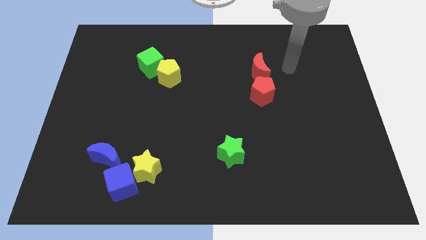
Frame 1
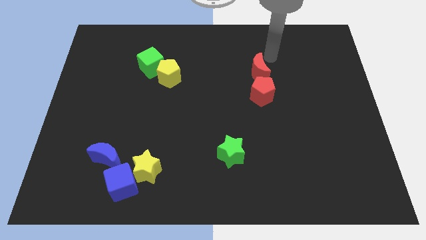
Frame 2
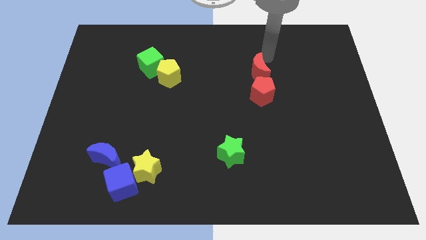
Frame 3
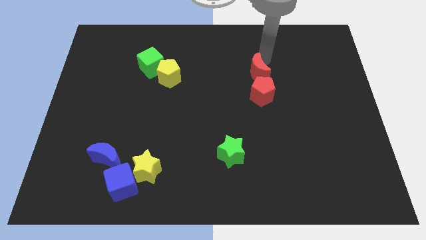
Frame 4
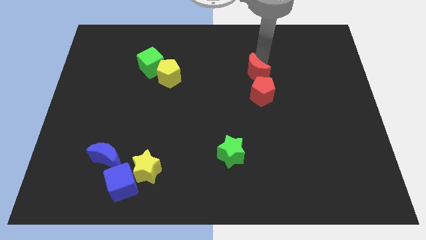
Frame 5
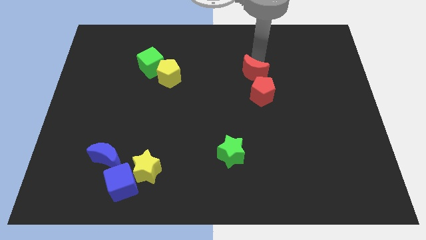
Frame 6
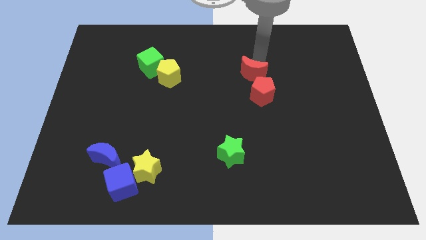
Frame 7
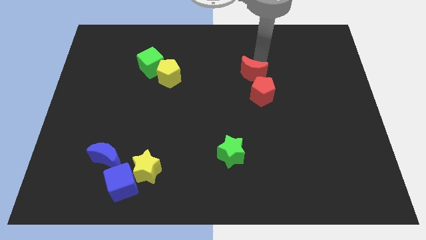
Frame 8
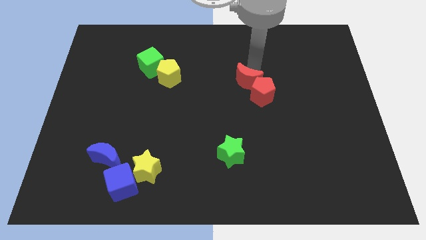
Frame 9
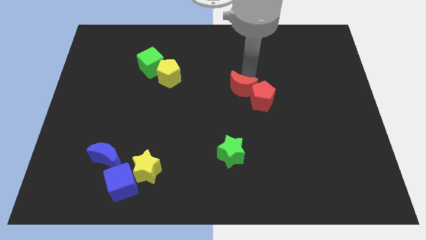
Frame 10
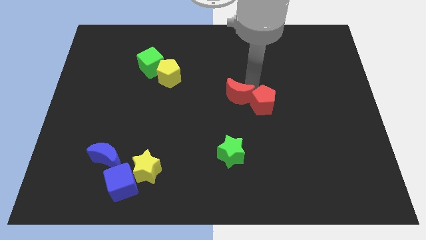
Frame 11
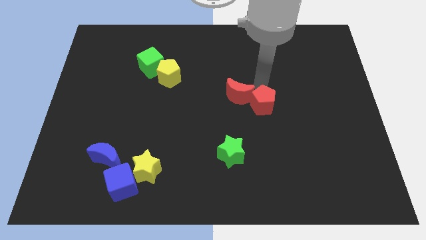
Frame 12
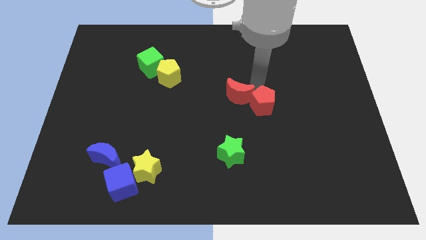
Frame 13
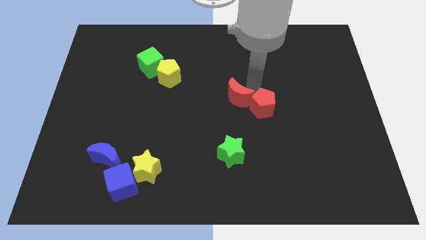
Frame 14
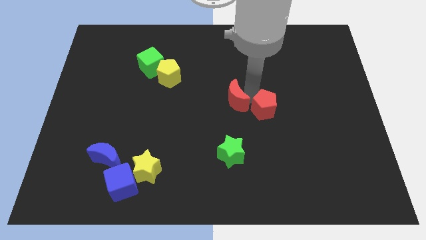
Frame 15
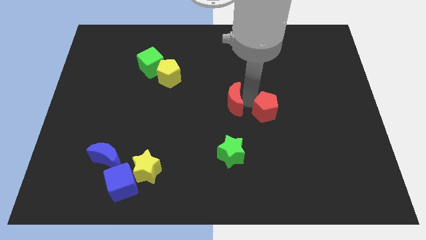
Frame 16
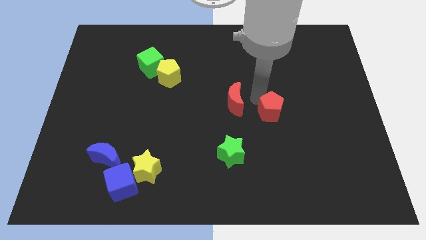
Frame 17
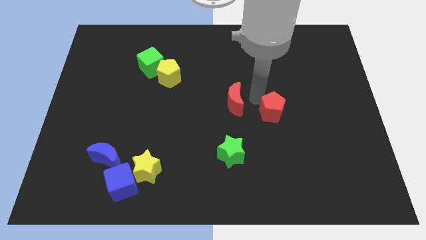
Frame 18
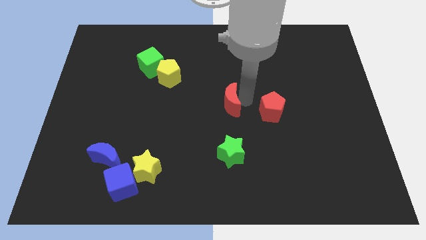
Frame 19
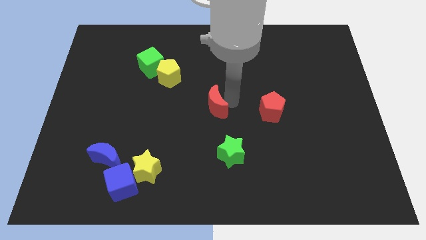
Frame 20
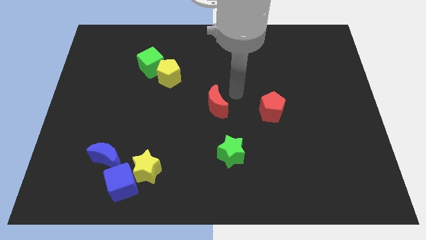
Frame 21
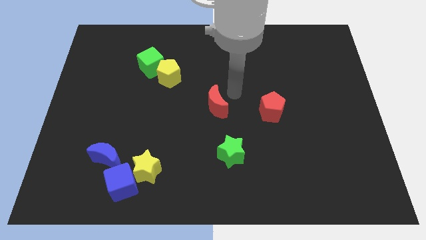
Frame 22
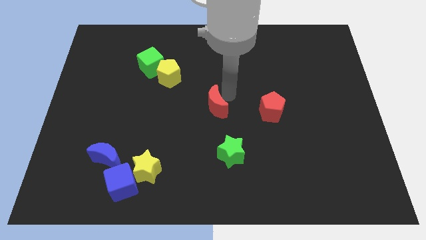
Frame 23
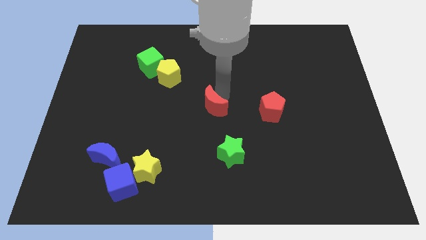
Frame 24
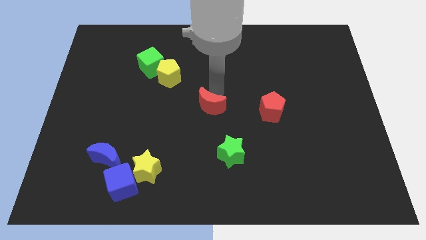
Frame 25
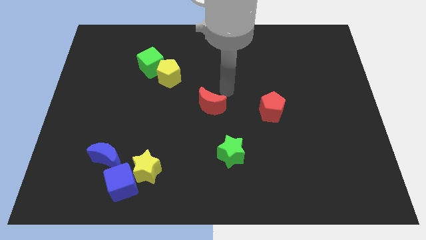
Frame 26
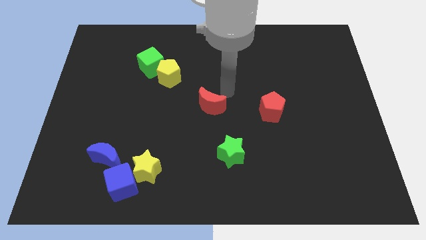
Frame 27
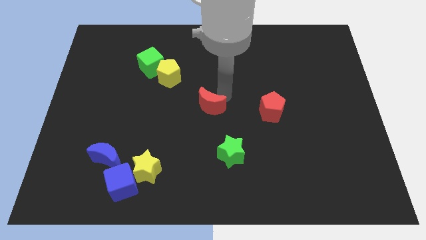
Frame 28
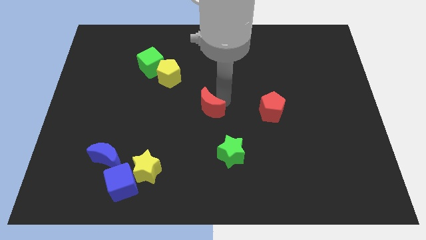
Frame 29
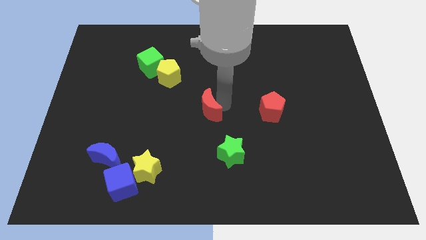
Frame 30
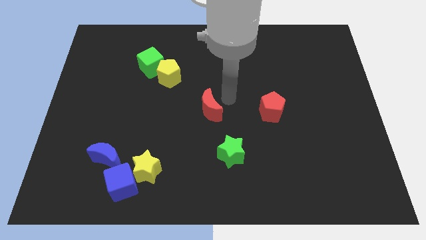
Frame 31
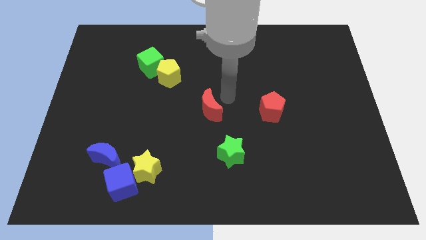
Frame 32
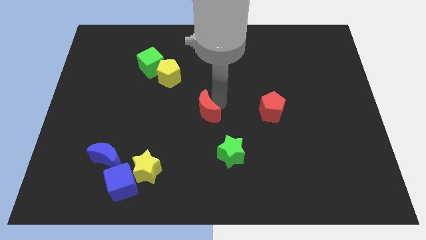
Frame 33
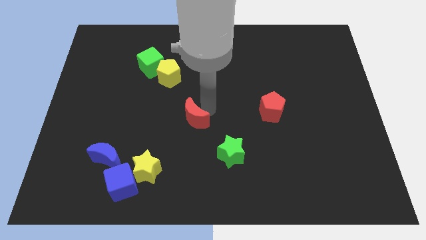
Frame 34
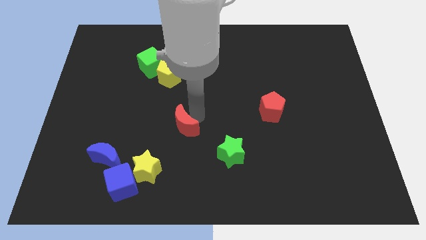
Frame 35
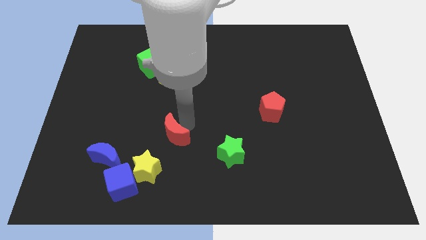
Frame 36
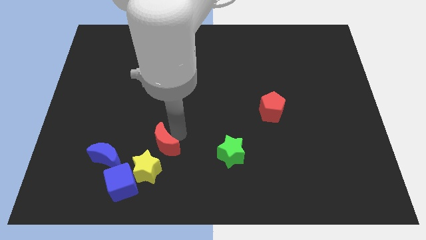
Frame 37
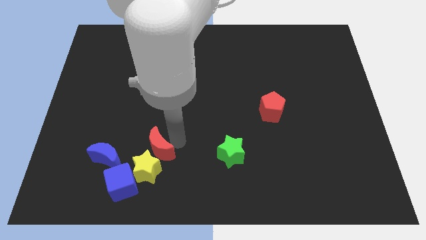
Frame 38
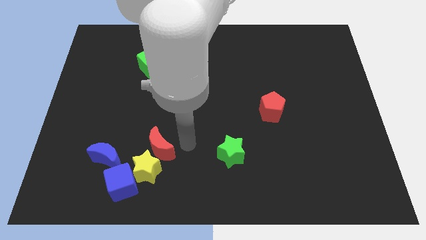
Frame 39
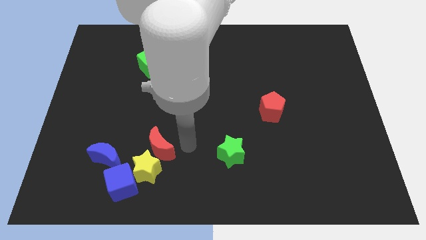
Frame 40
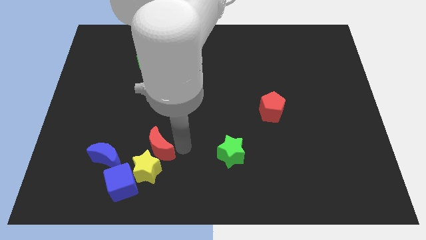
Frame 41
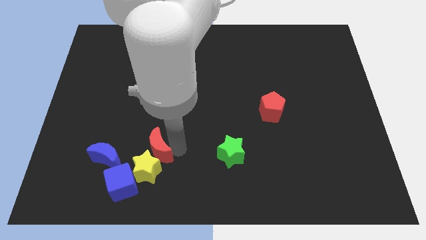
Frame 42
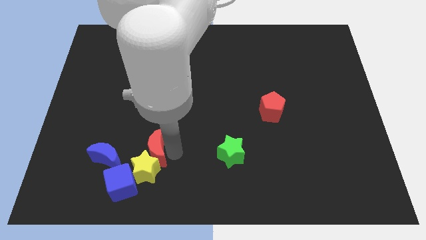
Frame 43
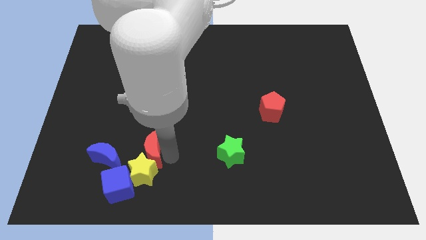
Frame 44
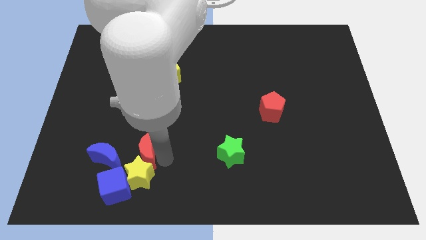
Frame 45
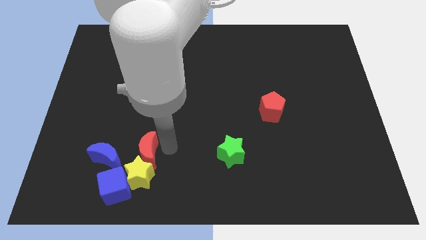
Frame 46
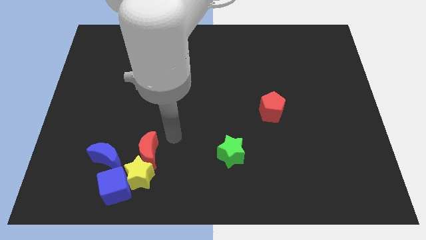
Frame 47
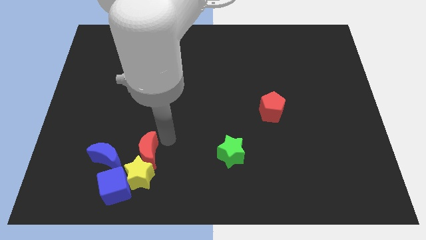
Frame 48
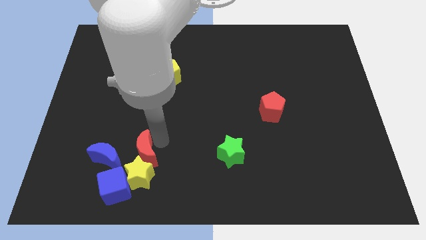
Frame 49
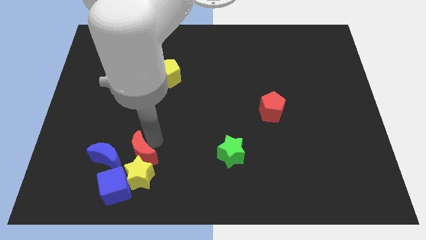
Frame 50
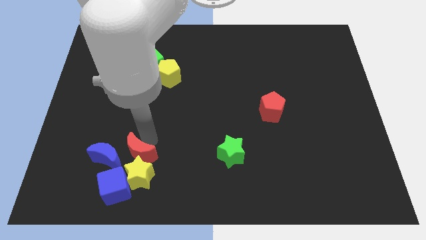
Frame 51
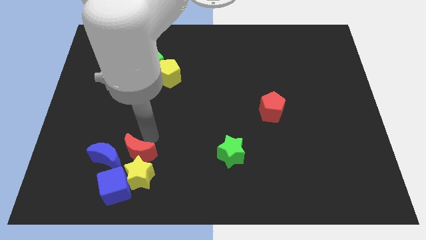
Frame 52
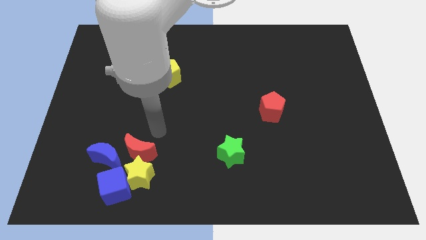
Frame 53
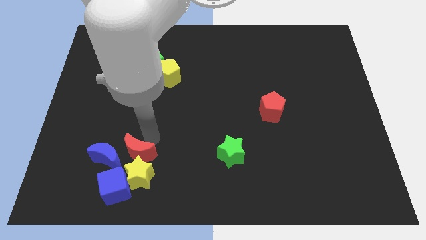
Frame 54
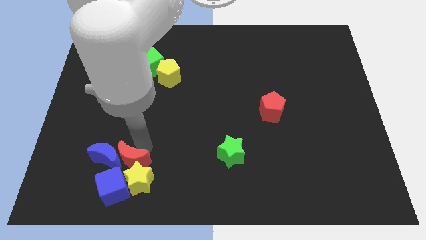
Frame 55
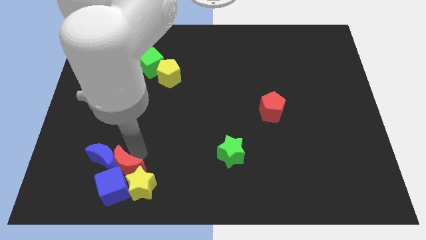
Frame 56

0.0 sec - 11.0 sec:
push the red moon to the blue cube

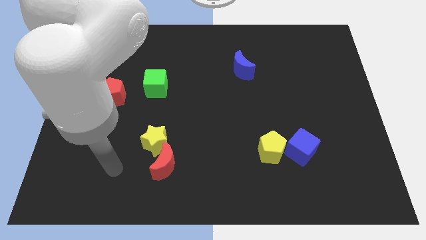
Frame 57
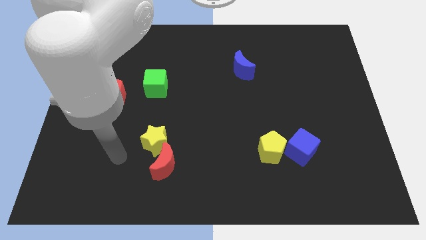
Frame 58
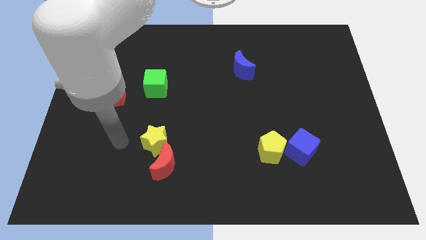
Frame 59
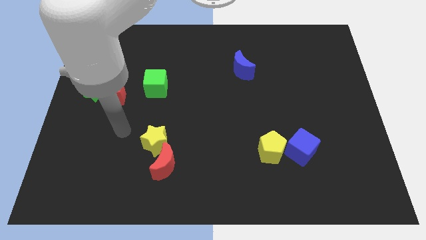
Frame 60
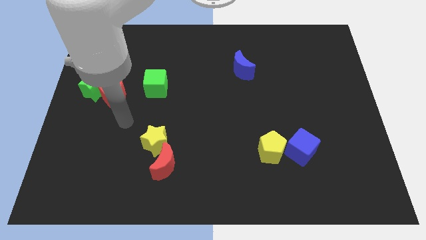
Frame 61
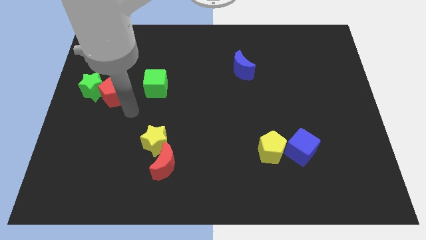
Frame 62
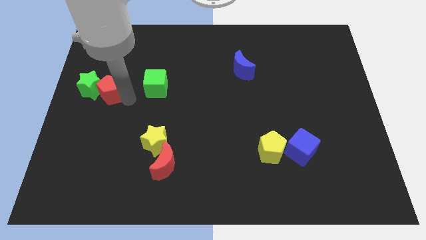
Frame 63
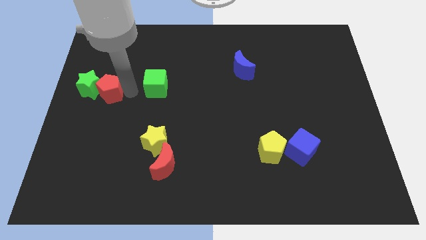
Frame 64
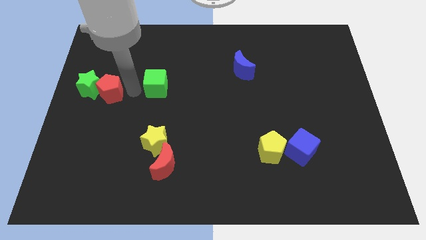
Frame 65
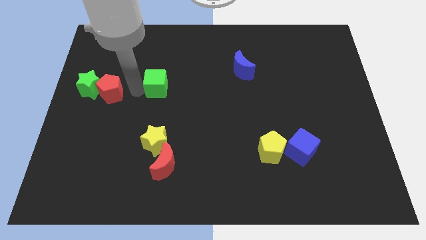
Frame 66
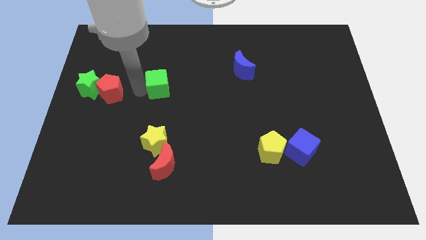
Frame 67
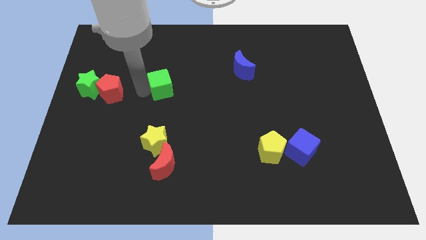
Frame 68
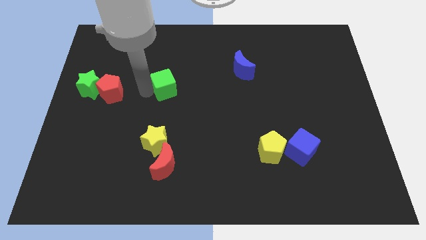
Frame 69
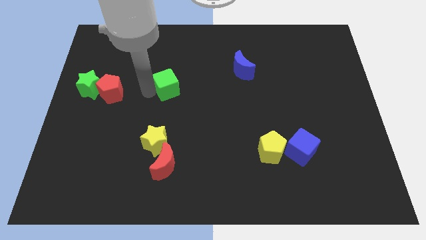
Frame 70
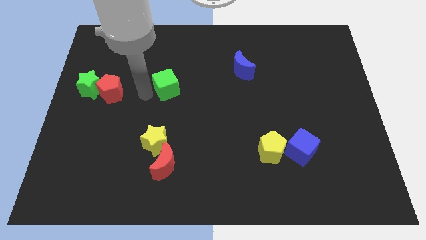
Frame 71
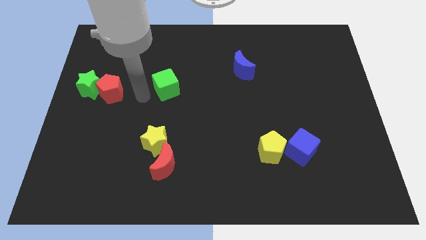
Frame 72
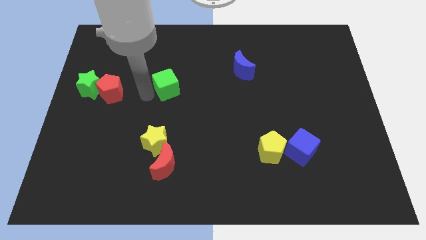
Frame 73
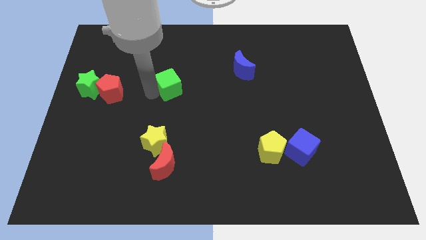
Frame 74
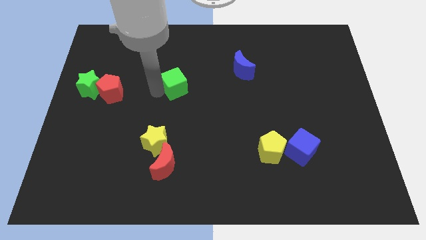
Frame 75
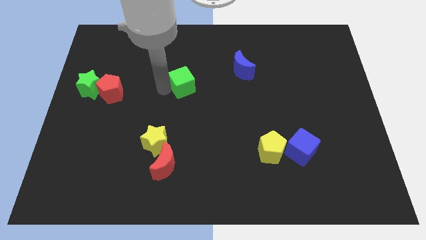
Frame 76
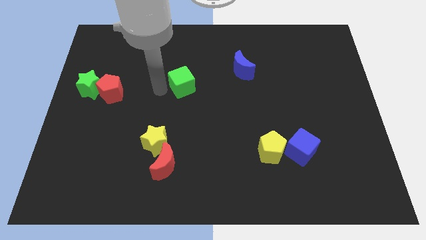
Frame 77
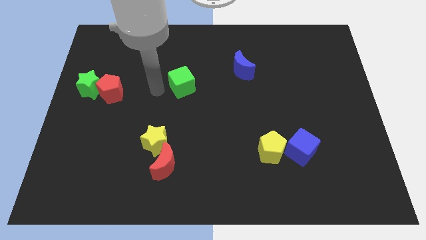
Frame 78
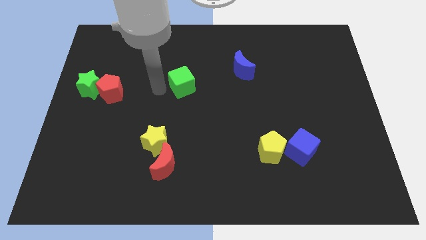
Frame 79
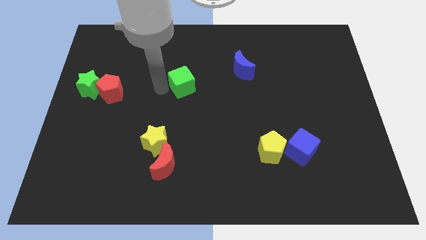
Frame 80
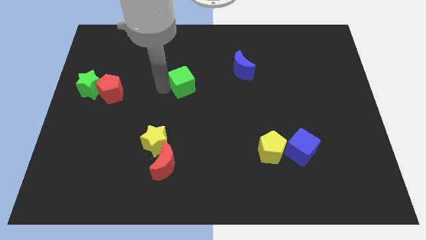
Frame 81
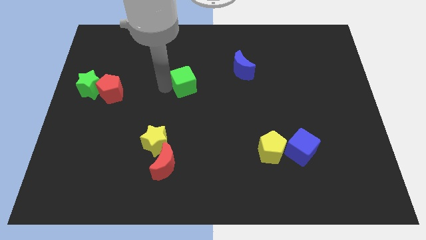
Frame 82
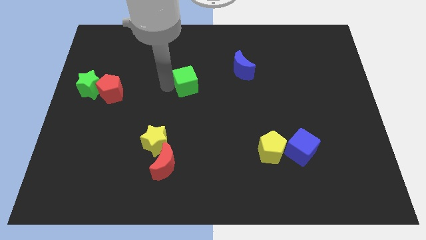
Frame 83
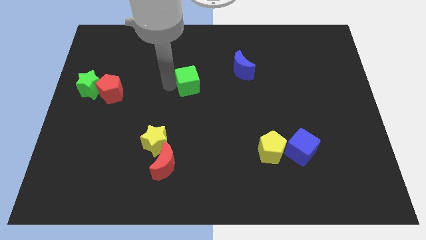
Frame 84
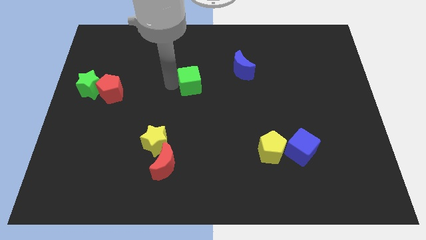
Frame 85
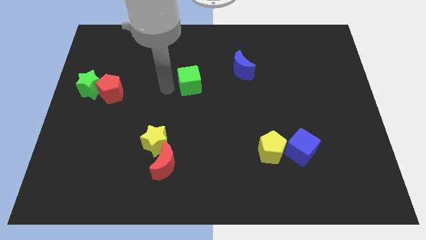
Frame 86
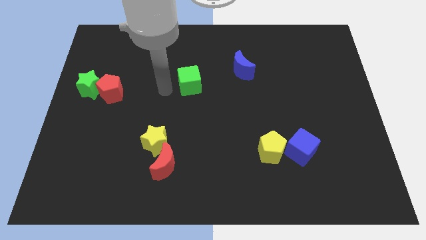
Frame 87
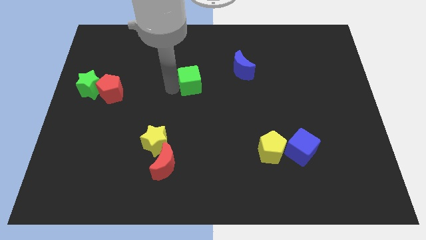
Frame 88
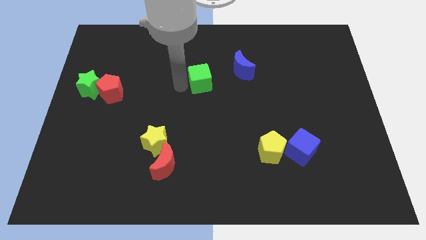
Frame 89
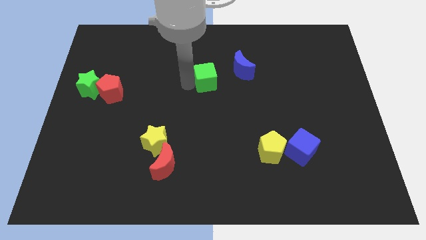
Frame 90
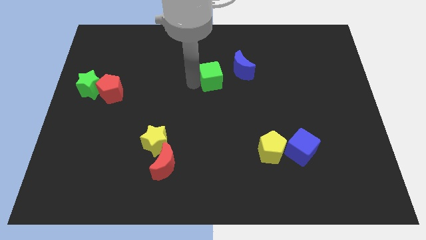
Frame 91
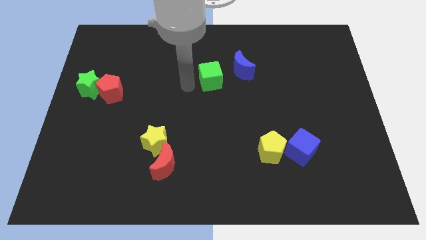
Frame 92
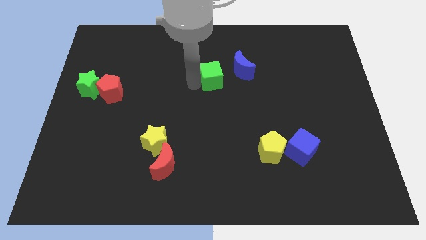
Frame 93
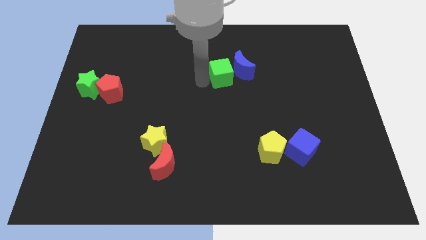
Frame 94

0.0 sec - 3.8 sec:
put the green cube next to the blue moon
